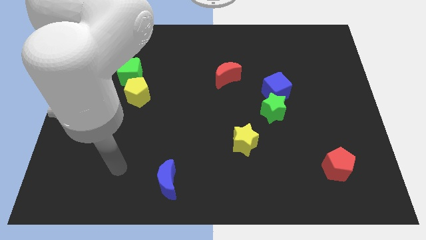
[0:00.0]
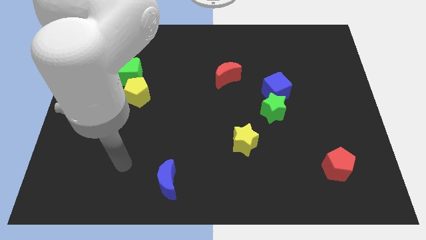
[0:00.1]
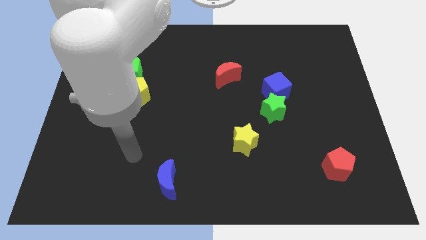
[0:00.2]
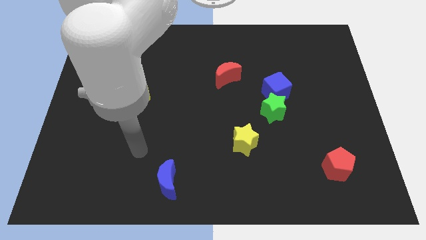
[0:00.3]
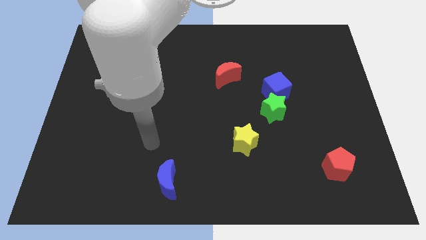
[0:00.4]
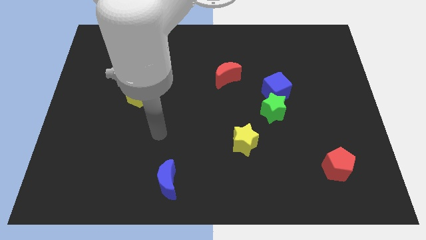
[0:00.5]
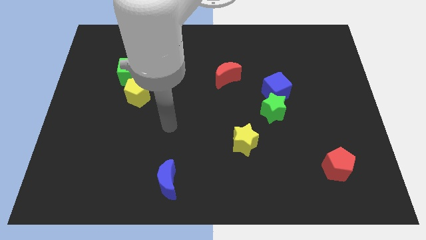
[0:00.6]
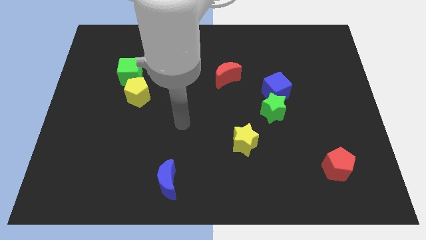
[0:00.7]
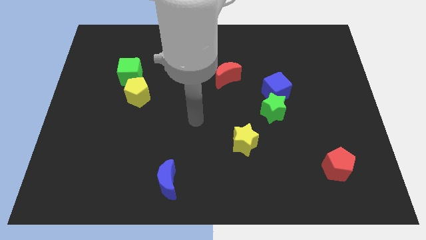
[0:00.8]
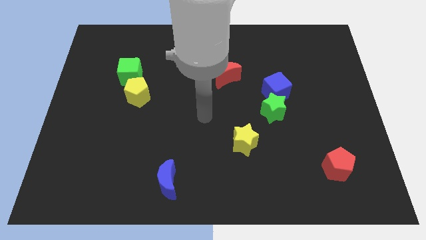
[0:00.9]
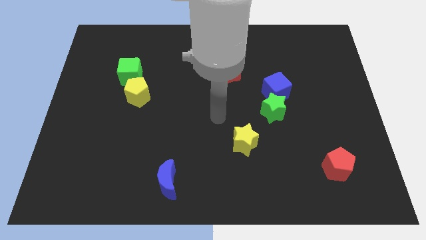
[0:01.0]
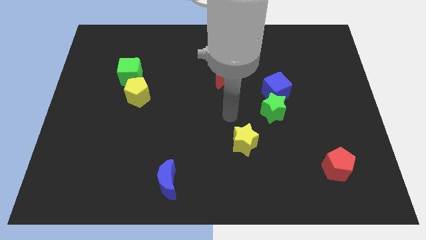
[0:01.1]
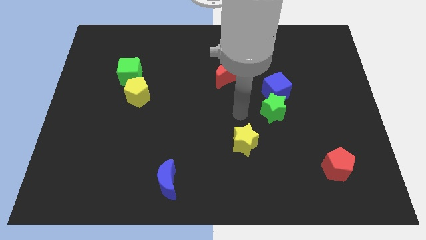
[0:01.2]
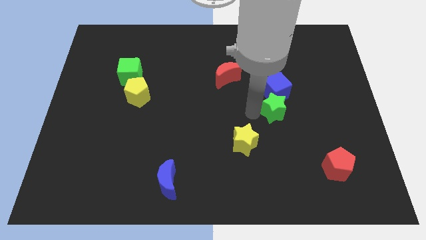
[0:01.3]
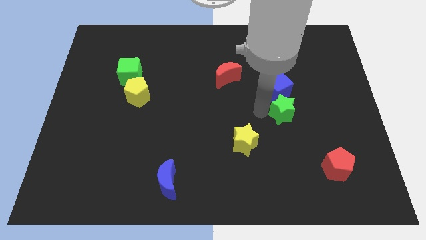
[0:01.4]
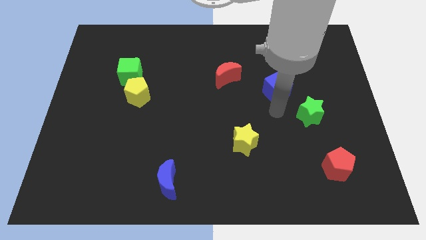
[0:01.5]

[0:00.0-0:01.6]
pull the blue cube apart from the green star

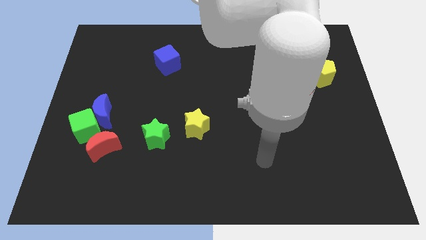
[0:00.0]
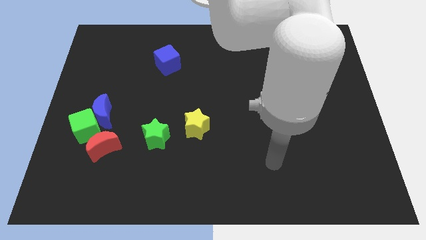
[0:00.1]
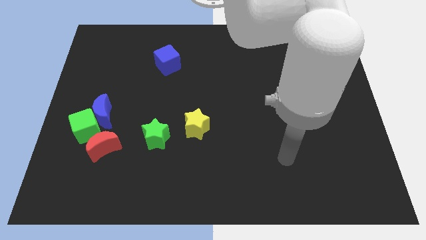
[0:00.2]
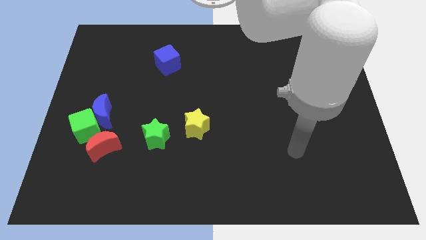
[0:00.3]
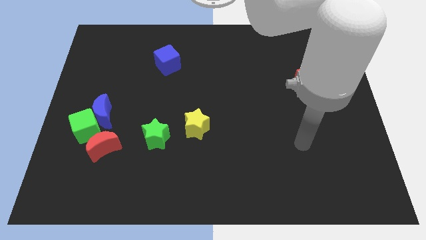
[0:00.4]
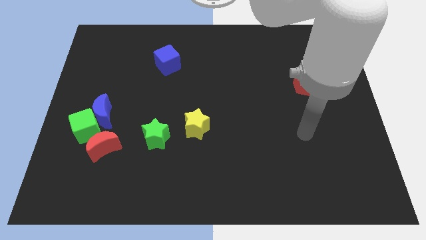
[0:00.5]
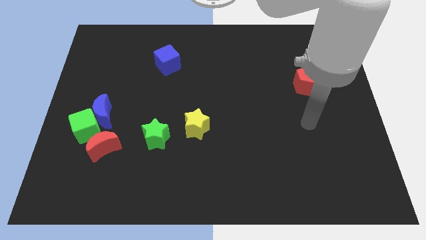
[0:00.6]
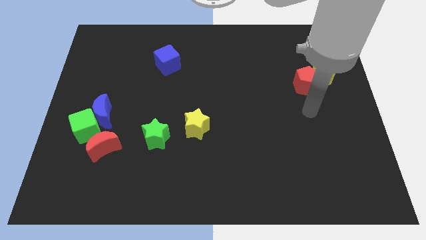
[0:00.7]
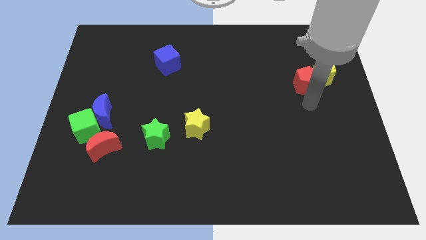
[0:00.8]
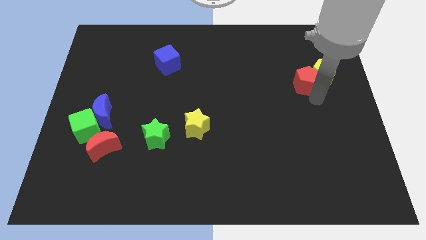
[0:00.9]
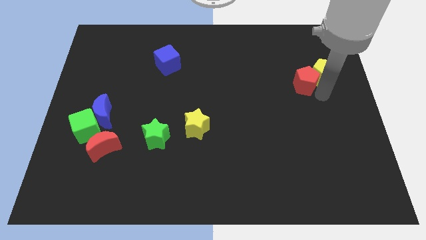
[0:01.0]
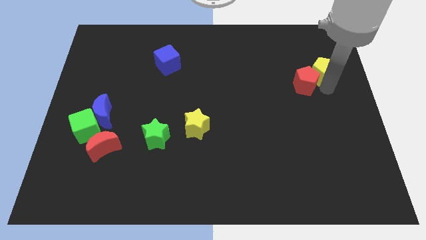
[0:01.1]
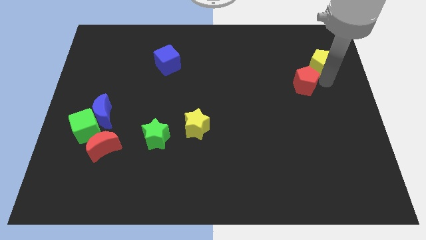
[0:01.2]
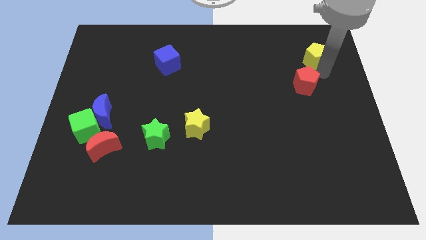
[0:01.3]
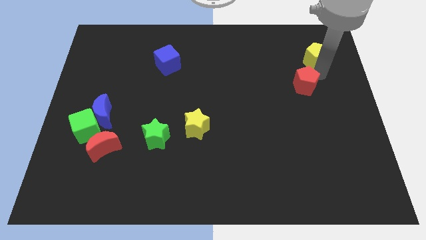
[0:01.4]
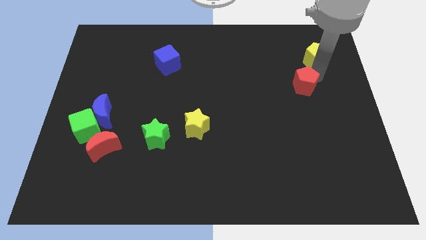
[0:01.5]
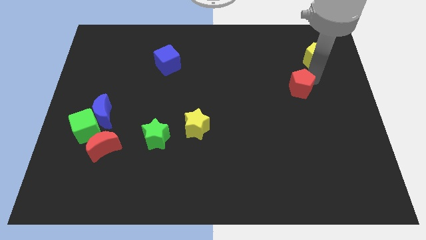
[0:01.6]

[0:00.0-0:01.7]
separate the red pentagon from the yellow pentagon

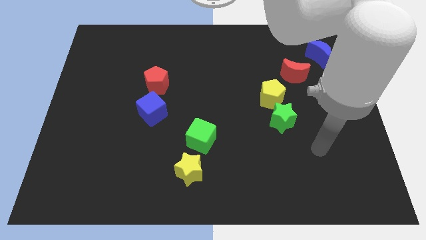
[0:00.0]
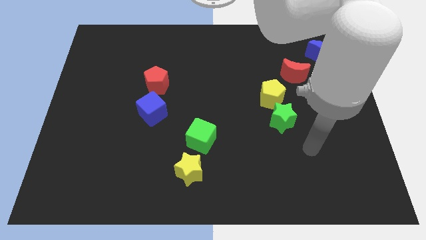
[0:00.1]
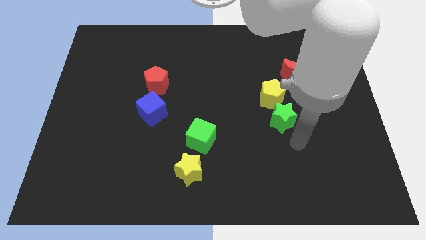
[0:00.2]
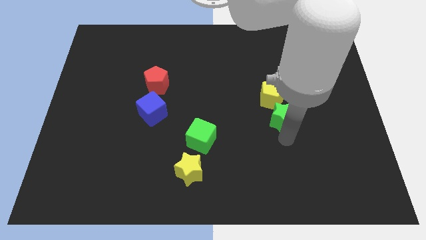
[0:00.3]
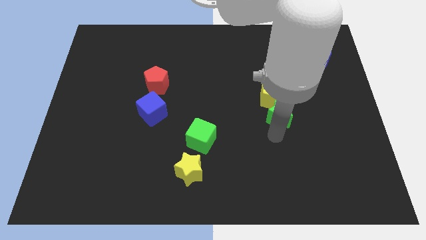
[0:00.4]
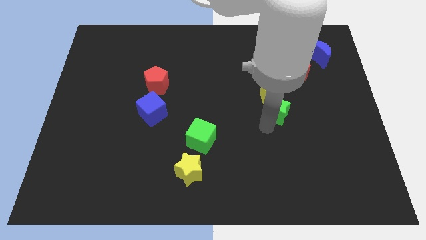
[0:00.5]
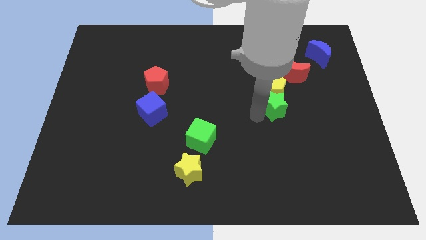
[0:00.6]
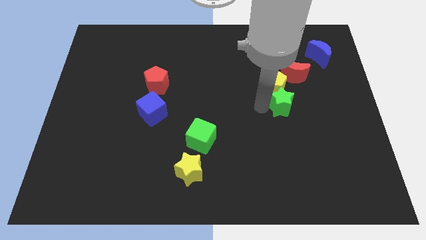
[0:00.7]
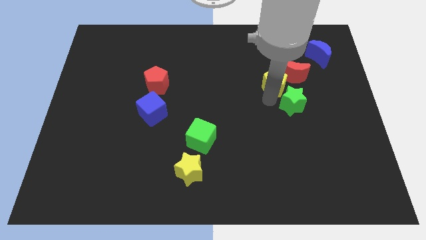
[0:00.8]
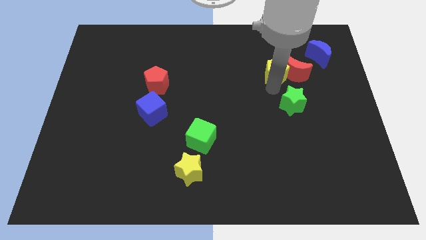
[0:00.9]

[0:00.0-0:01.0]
separate the green star from the yellow pentagon

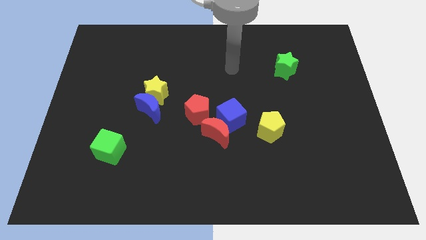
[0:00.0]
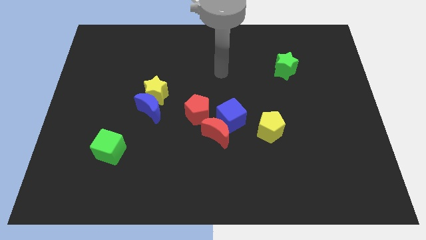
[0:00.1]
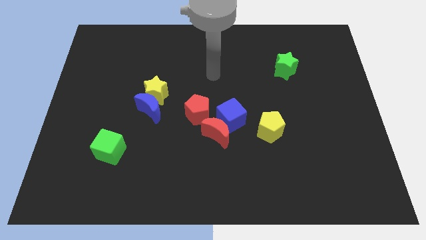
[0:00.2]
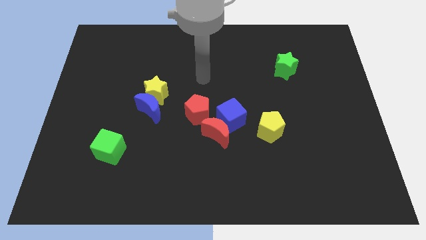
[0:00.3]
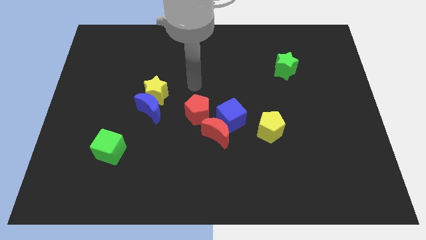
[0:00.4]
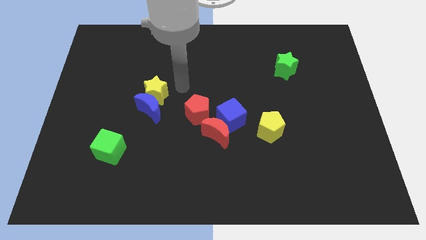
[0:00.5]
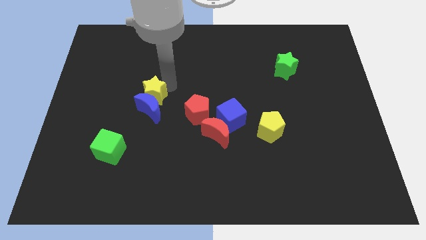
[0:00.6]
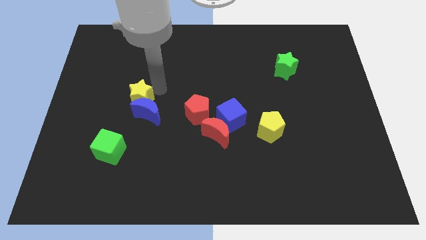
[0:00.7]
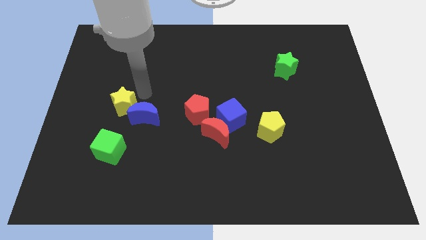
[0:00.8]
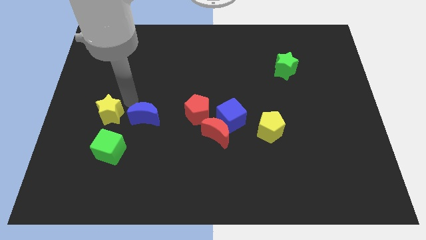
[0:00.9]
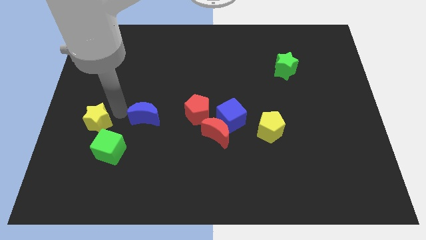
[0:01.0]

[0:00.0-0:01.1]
separate the blue moon from the yellow star

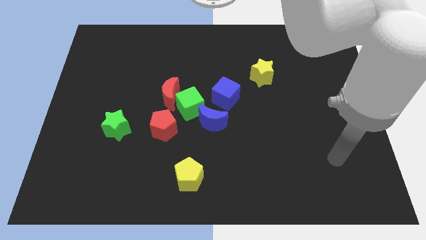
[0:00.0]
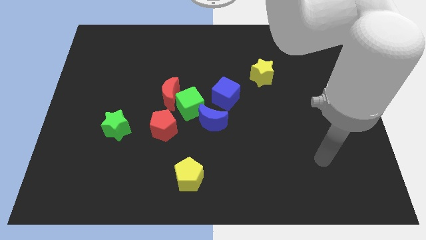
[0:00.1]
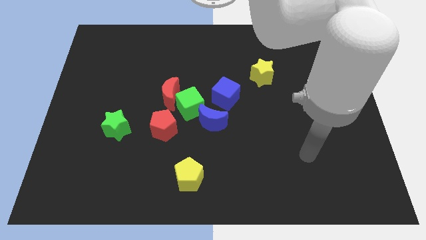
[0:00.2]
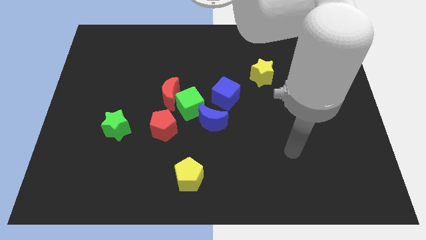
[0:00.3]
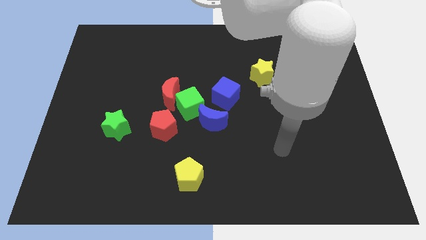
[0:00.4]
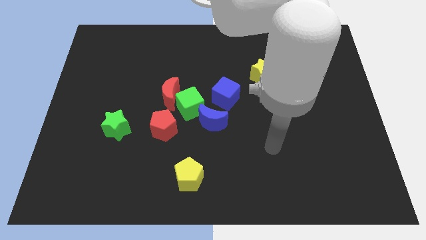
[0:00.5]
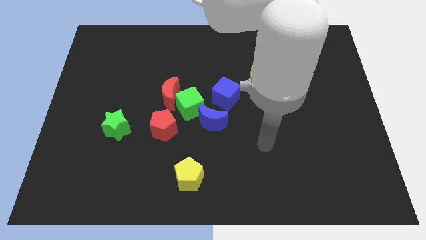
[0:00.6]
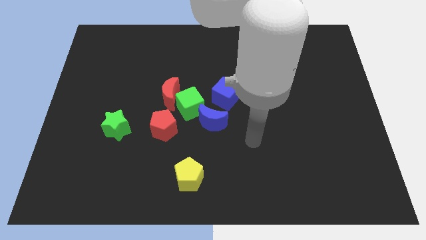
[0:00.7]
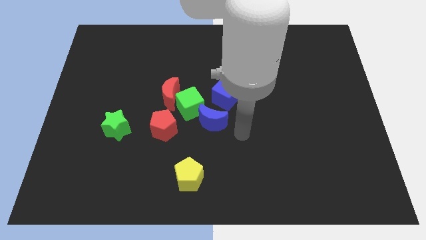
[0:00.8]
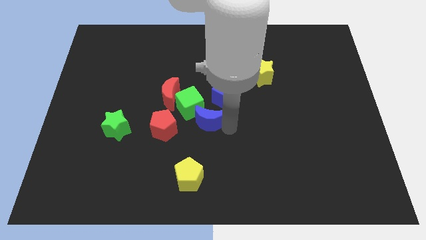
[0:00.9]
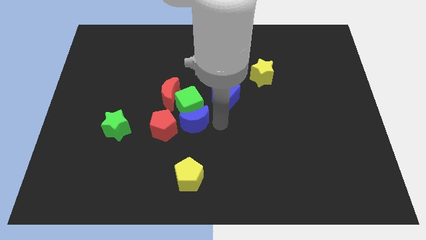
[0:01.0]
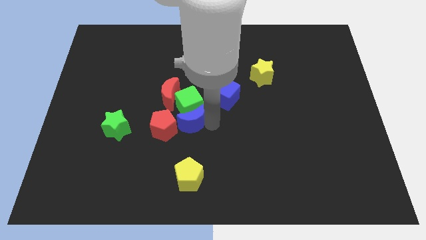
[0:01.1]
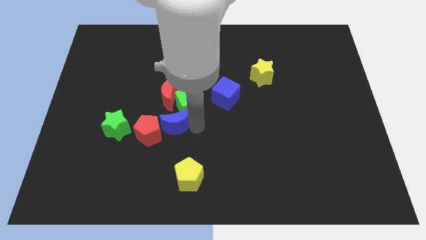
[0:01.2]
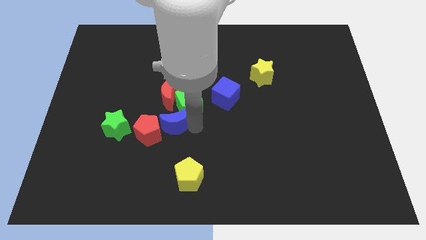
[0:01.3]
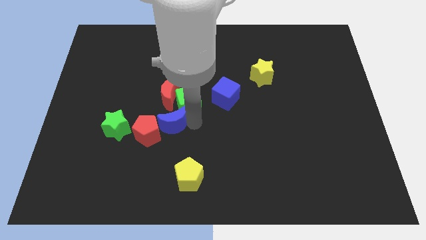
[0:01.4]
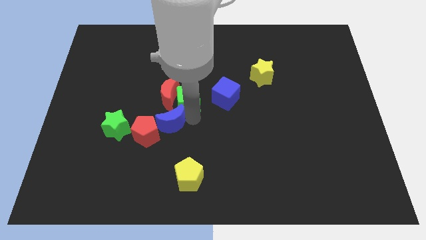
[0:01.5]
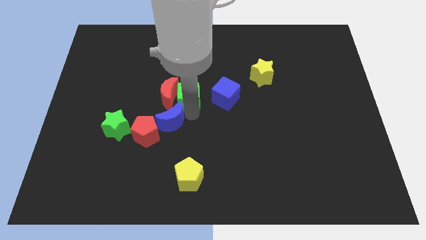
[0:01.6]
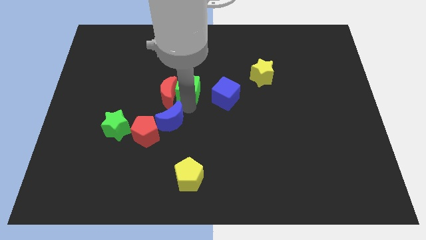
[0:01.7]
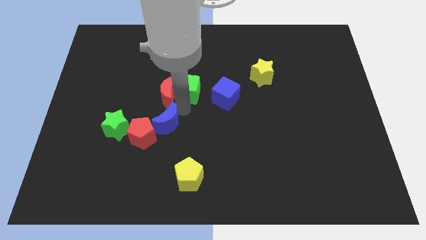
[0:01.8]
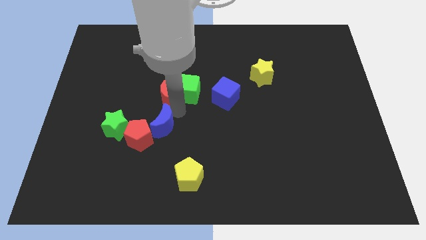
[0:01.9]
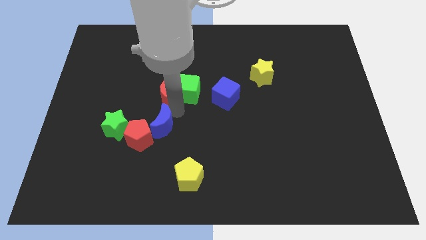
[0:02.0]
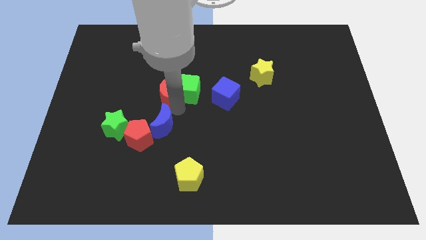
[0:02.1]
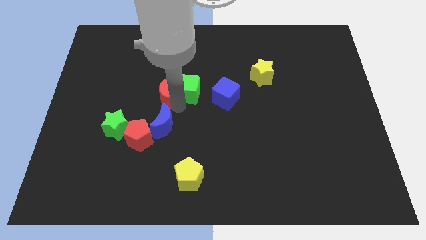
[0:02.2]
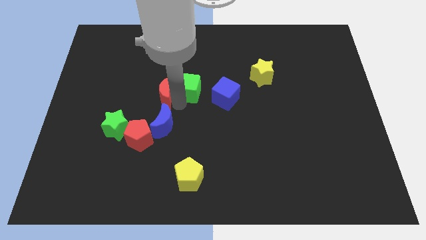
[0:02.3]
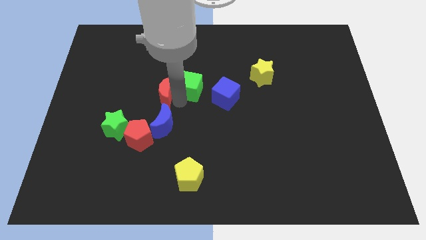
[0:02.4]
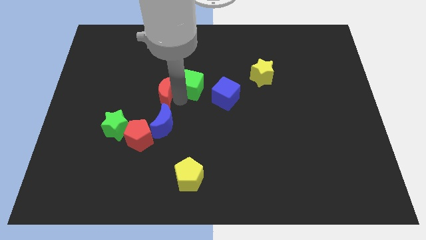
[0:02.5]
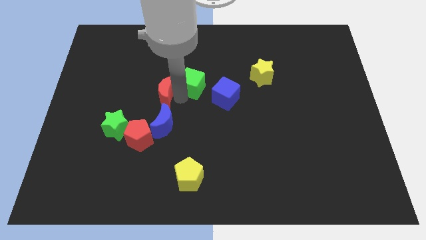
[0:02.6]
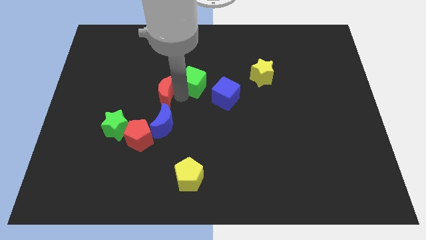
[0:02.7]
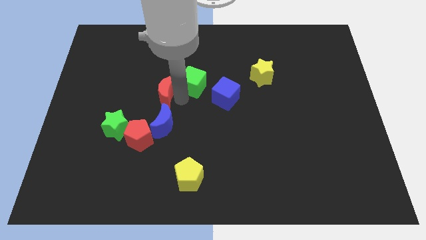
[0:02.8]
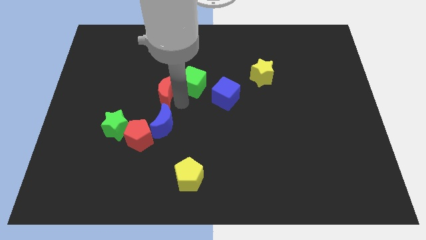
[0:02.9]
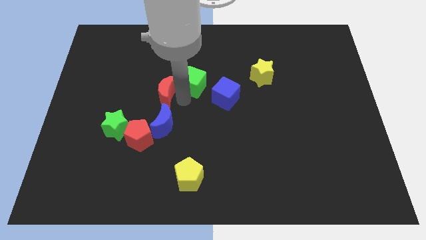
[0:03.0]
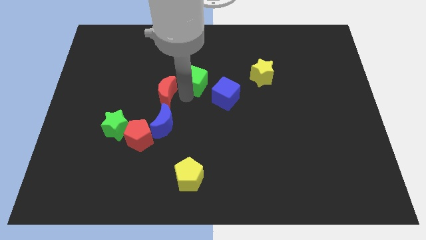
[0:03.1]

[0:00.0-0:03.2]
pull the green cube apart from the clump

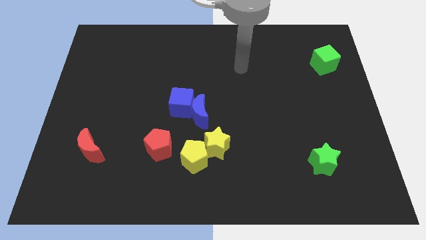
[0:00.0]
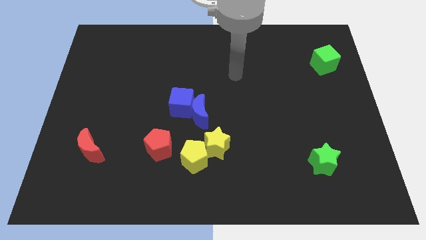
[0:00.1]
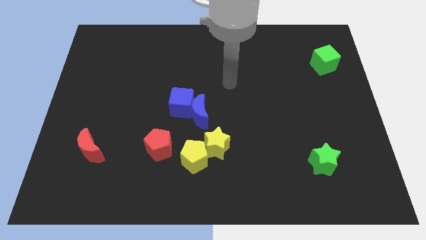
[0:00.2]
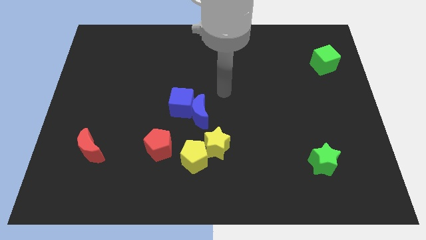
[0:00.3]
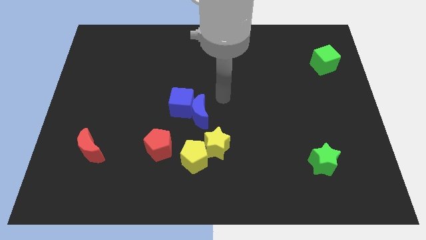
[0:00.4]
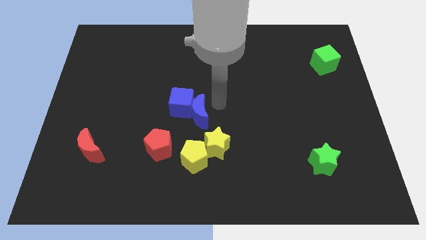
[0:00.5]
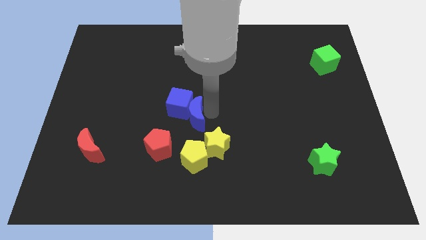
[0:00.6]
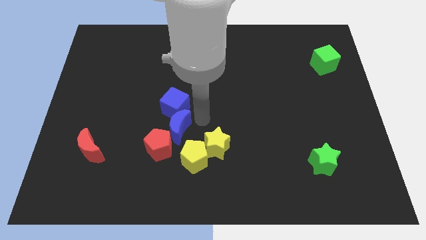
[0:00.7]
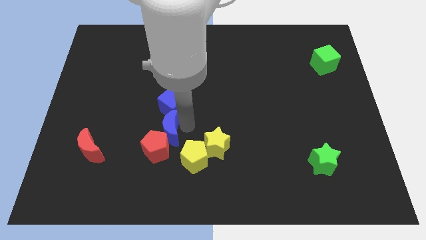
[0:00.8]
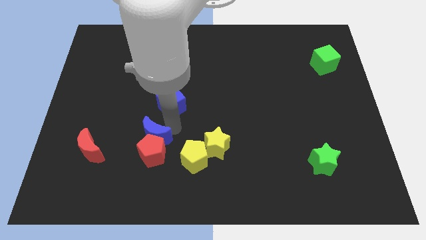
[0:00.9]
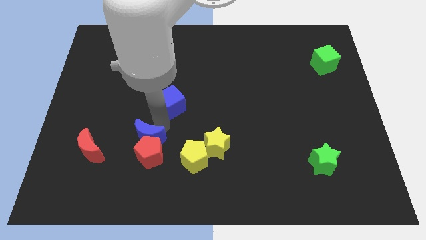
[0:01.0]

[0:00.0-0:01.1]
move the blue cube away from the blue moon
